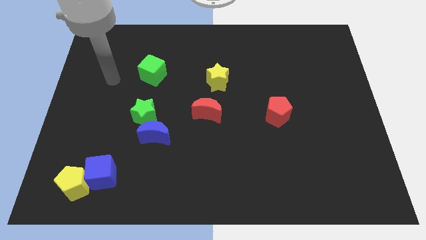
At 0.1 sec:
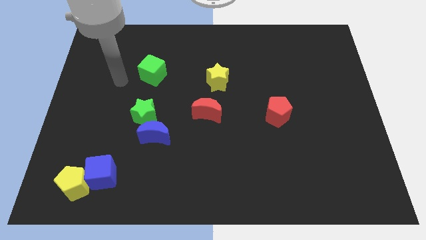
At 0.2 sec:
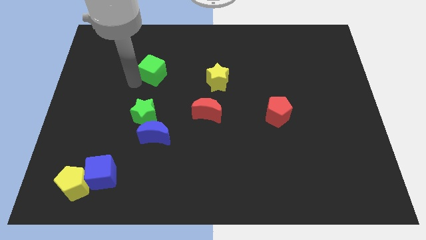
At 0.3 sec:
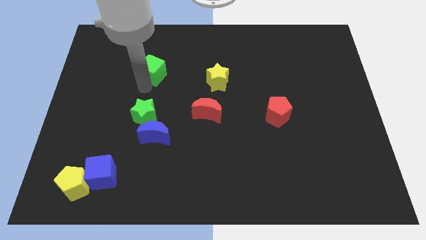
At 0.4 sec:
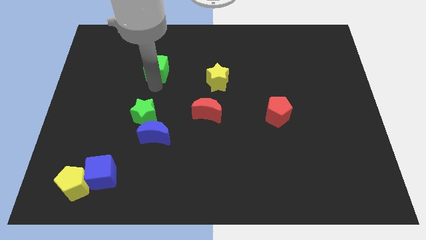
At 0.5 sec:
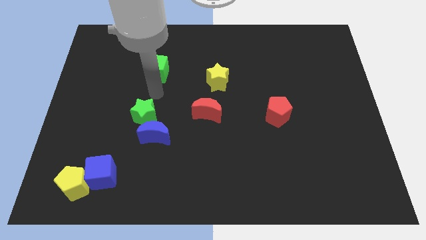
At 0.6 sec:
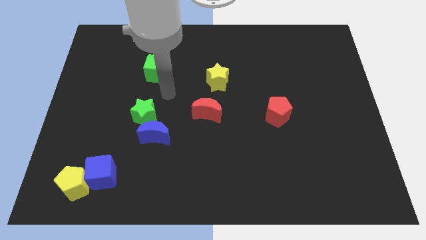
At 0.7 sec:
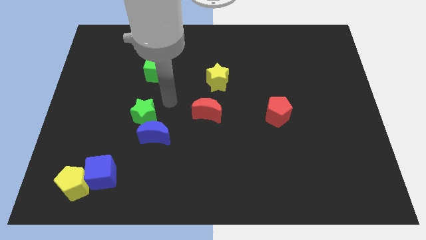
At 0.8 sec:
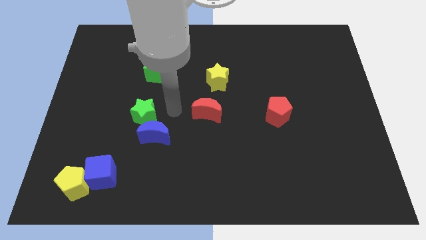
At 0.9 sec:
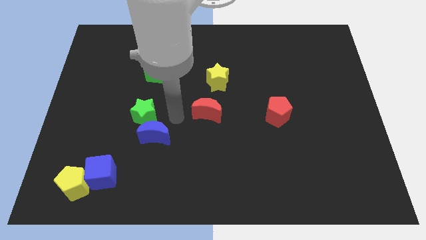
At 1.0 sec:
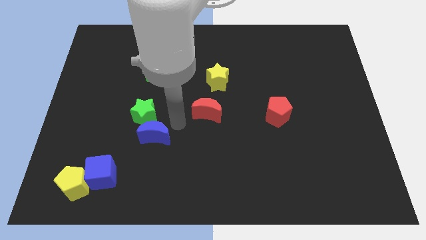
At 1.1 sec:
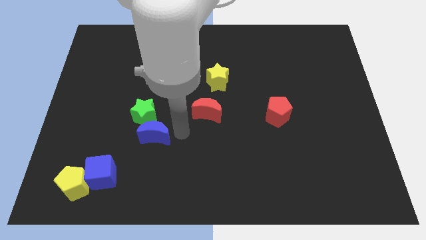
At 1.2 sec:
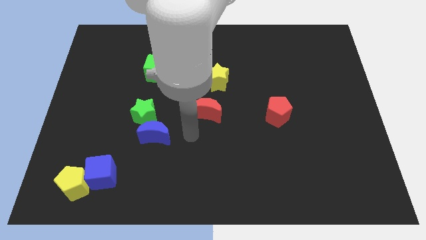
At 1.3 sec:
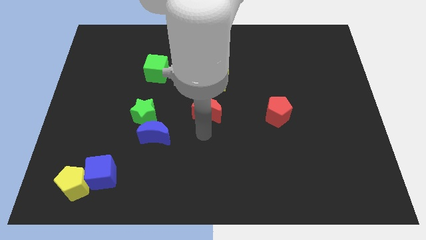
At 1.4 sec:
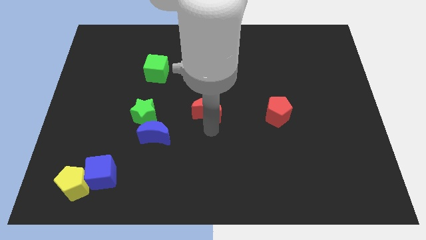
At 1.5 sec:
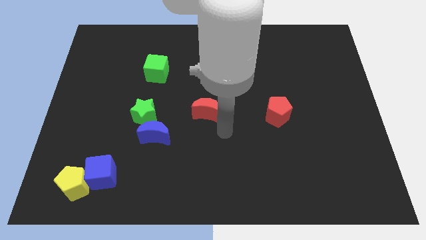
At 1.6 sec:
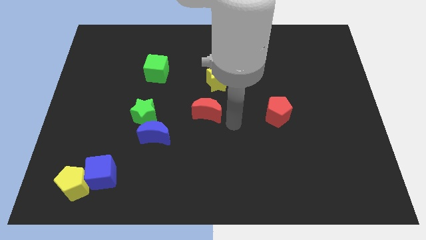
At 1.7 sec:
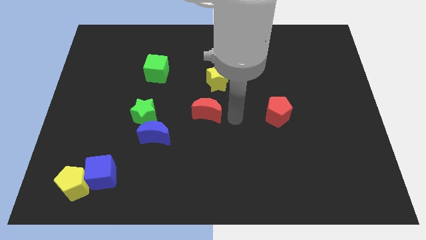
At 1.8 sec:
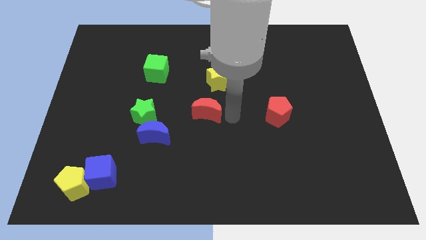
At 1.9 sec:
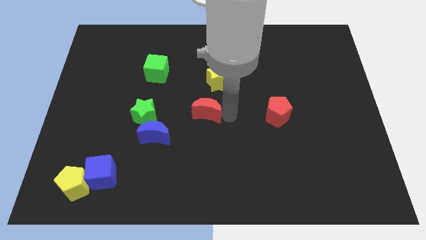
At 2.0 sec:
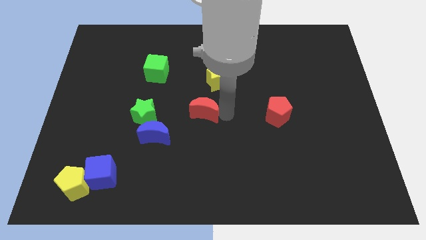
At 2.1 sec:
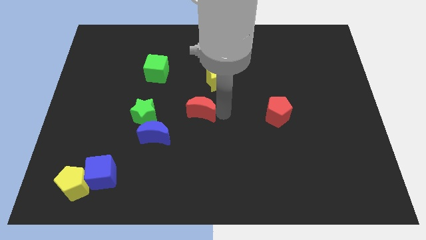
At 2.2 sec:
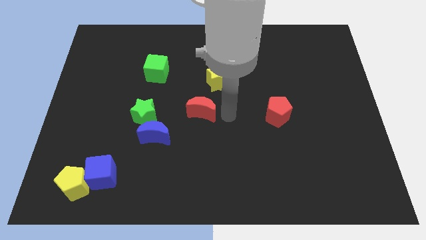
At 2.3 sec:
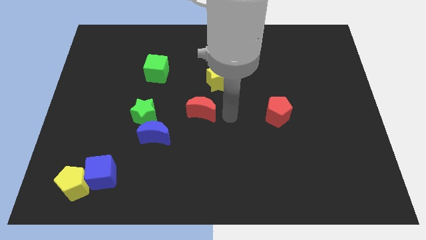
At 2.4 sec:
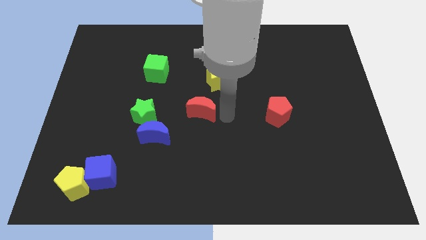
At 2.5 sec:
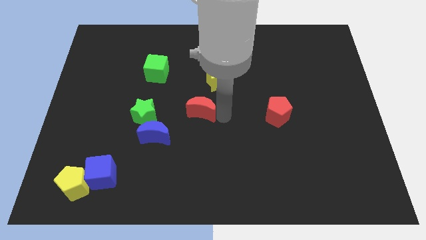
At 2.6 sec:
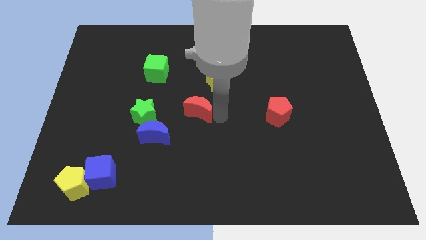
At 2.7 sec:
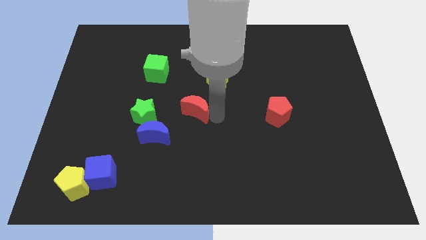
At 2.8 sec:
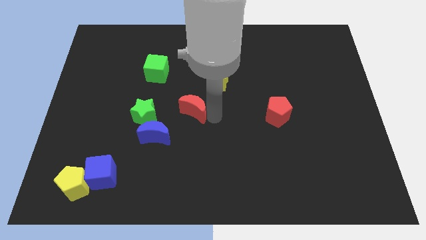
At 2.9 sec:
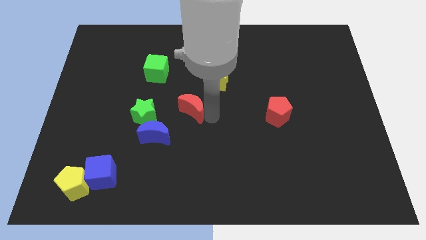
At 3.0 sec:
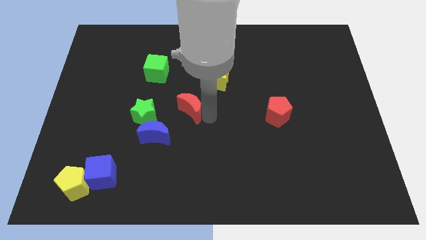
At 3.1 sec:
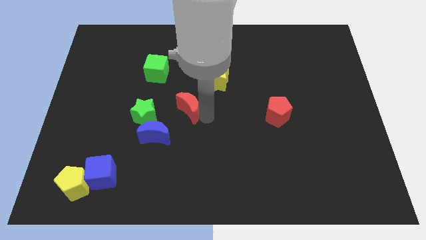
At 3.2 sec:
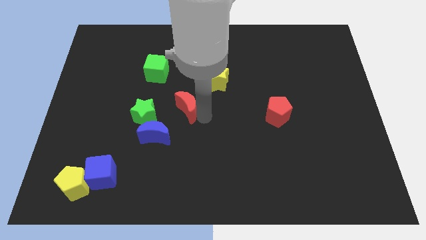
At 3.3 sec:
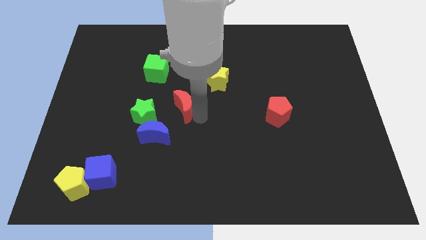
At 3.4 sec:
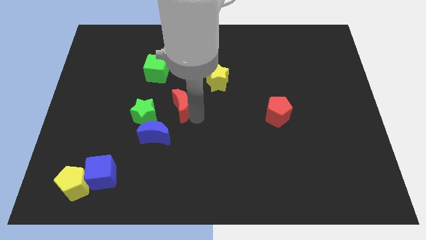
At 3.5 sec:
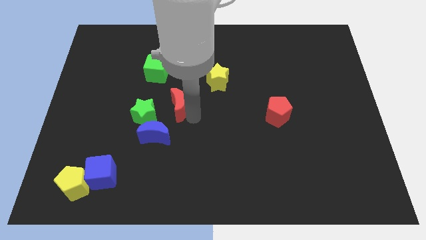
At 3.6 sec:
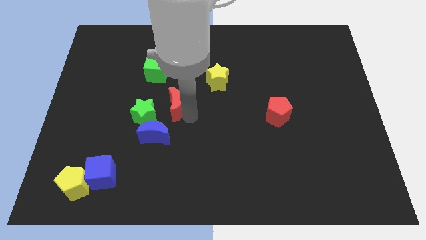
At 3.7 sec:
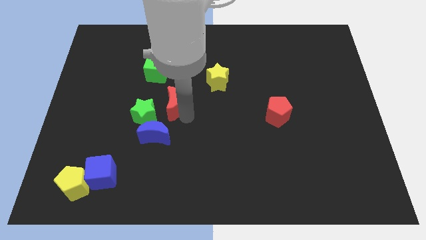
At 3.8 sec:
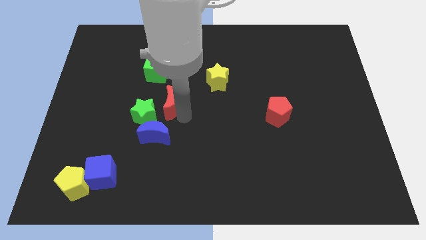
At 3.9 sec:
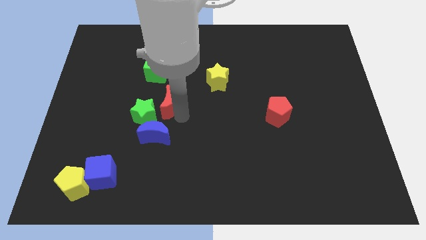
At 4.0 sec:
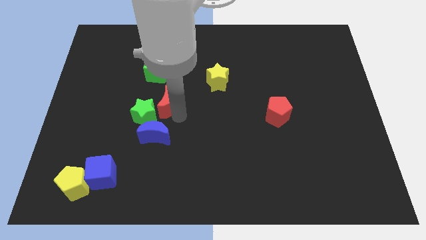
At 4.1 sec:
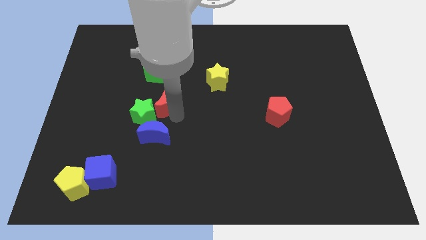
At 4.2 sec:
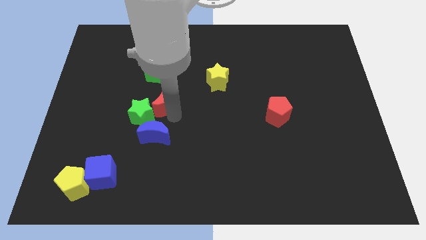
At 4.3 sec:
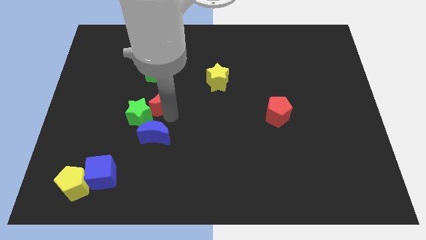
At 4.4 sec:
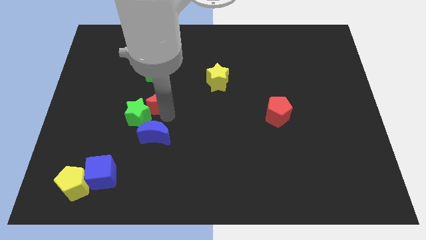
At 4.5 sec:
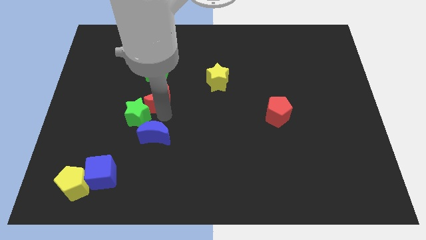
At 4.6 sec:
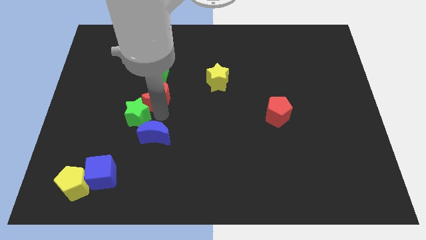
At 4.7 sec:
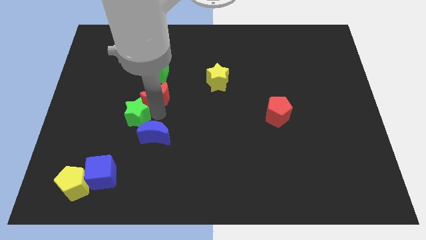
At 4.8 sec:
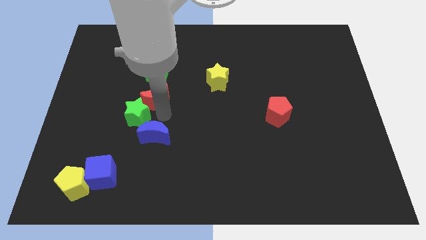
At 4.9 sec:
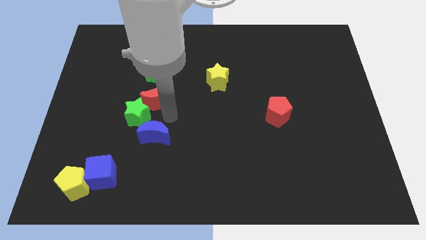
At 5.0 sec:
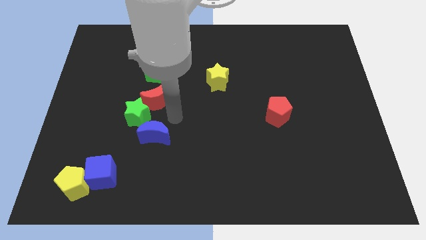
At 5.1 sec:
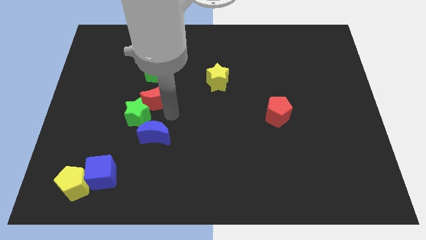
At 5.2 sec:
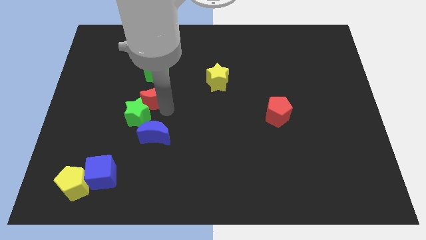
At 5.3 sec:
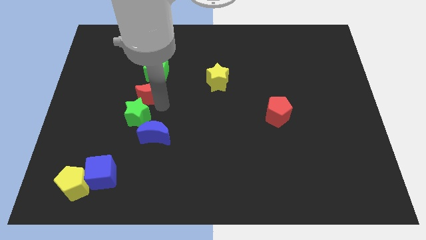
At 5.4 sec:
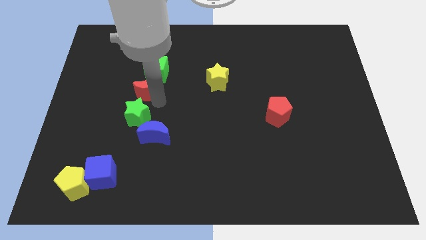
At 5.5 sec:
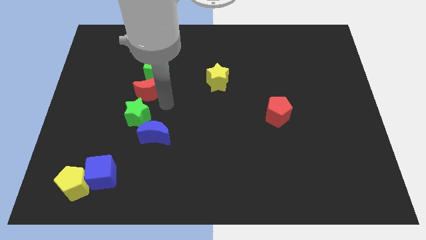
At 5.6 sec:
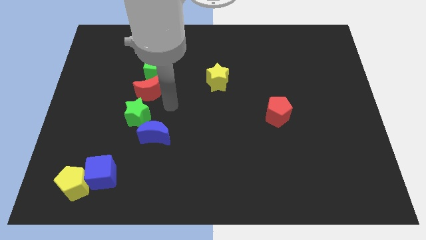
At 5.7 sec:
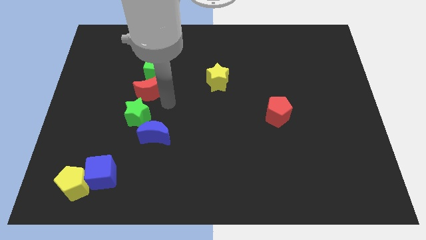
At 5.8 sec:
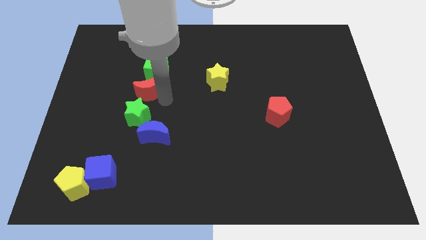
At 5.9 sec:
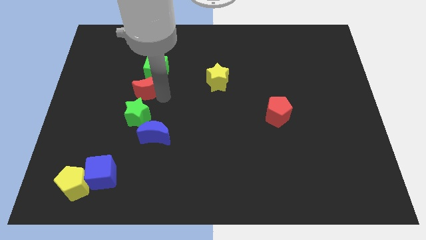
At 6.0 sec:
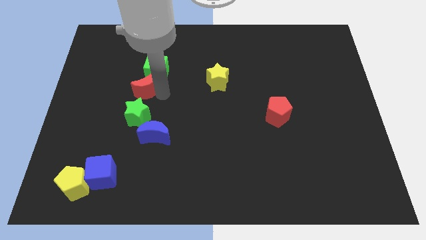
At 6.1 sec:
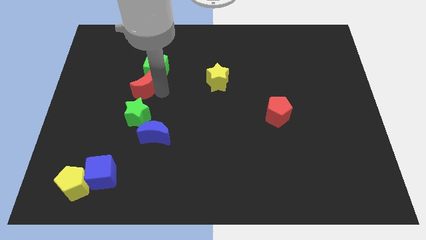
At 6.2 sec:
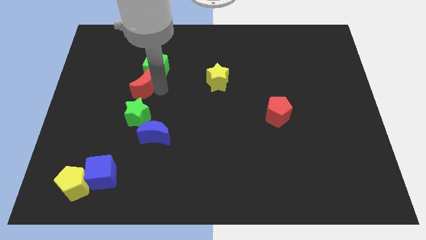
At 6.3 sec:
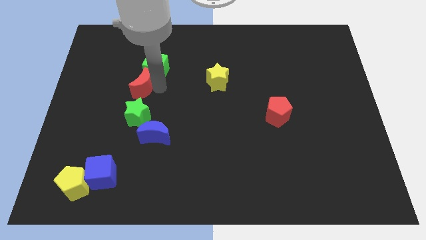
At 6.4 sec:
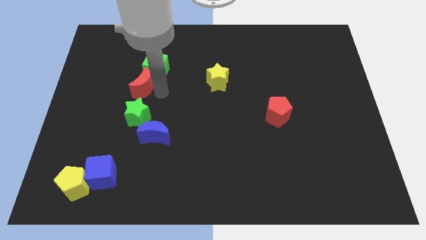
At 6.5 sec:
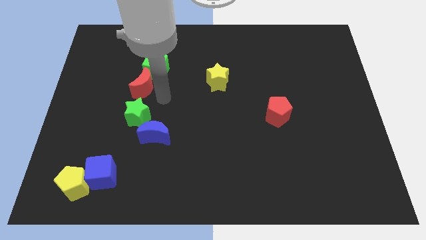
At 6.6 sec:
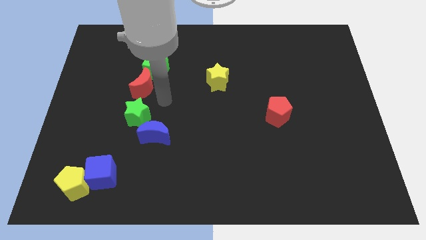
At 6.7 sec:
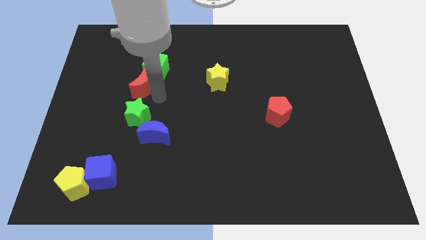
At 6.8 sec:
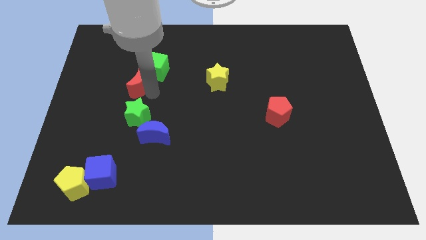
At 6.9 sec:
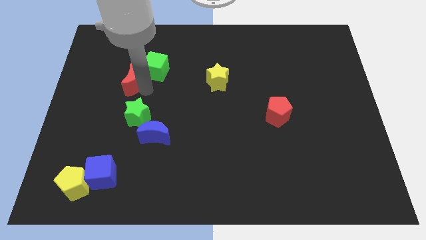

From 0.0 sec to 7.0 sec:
slide the red moon to the left of the green cube
